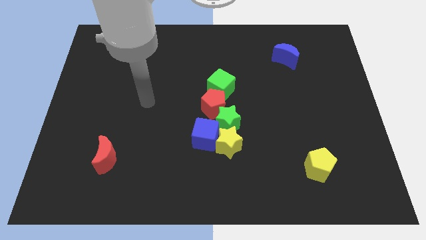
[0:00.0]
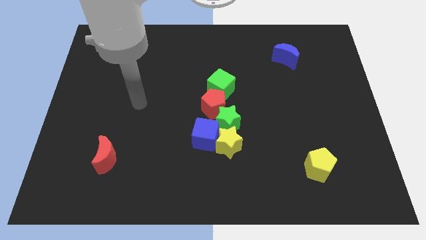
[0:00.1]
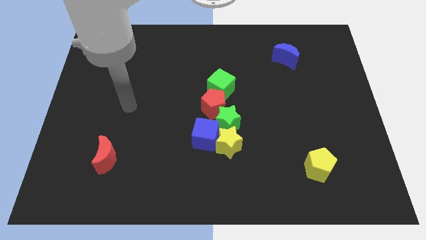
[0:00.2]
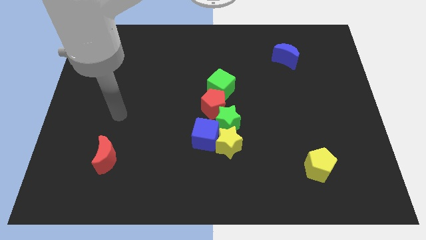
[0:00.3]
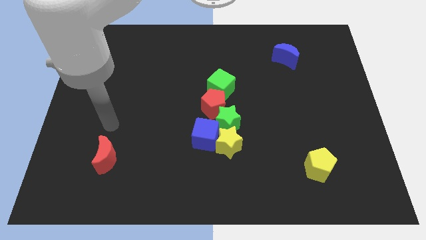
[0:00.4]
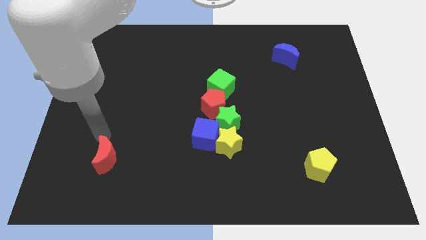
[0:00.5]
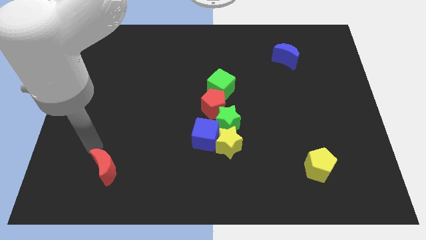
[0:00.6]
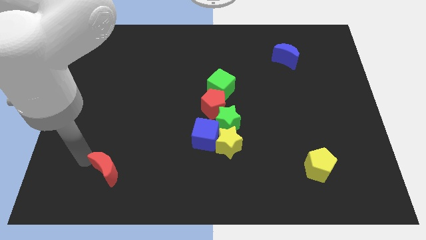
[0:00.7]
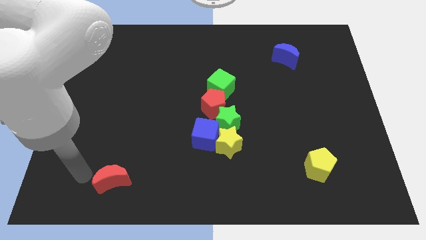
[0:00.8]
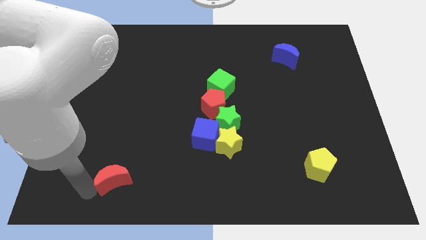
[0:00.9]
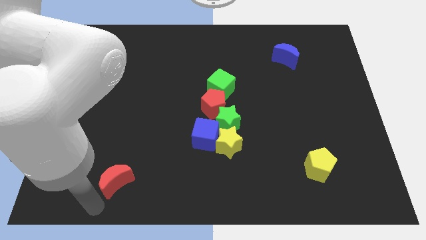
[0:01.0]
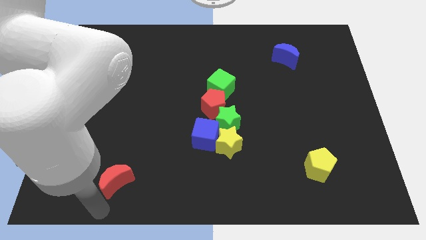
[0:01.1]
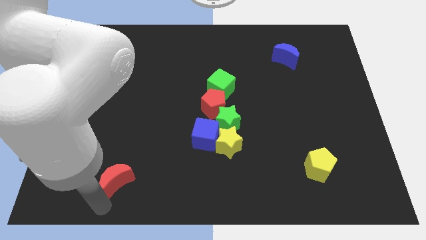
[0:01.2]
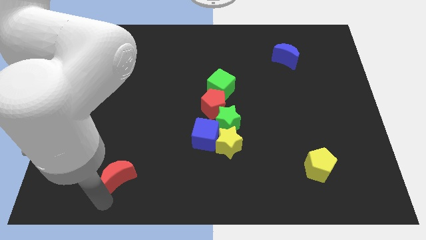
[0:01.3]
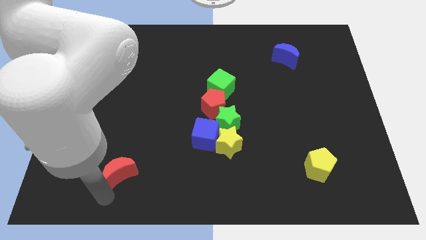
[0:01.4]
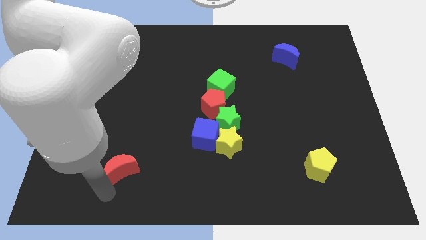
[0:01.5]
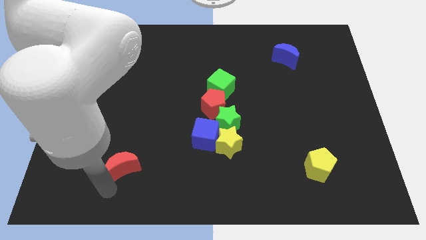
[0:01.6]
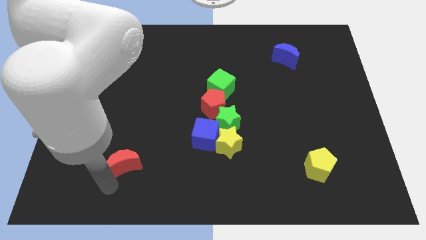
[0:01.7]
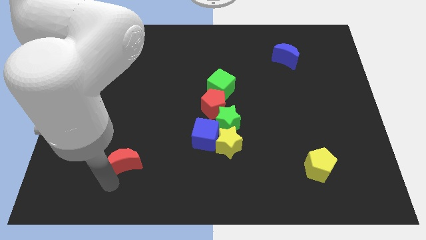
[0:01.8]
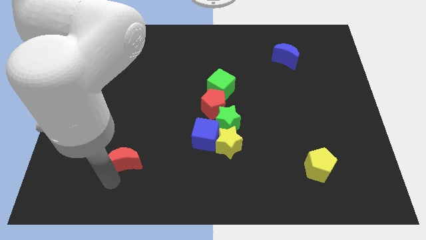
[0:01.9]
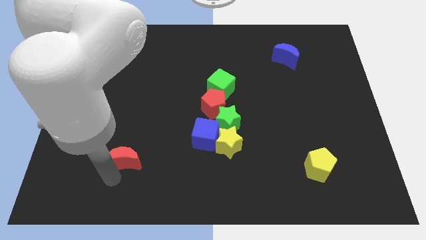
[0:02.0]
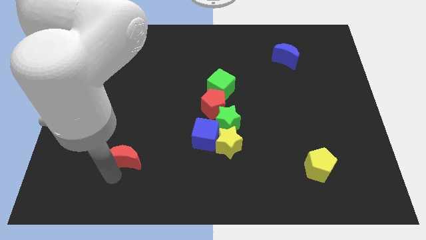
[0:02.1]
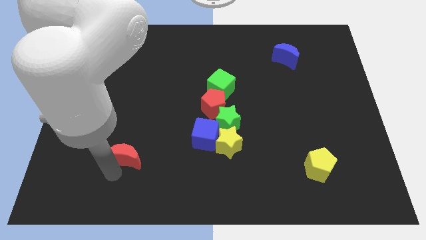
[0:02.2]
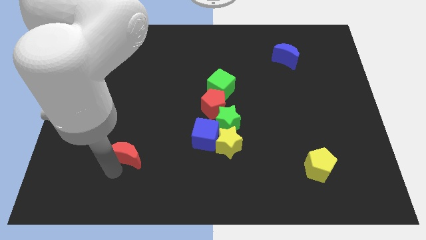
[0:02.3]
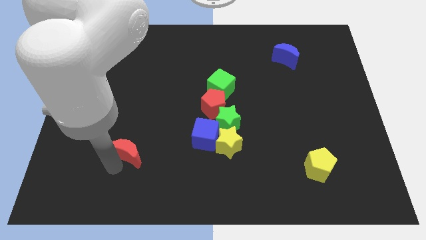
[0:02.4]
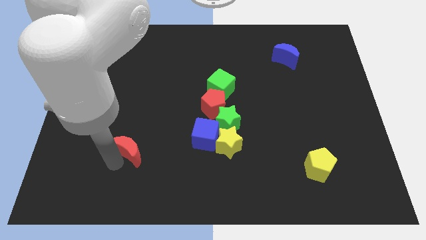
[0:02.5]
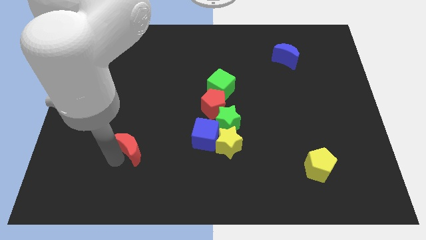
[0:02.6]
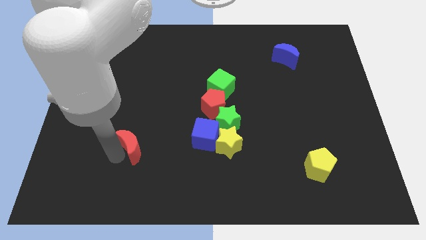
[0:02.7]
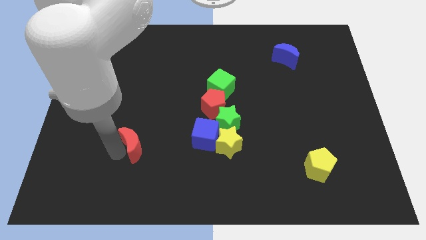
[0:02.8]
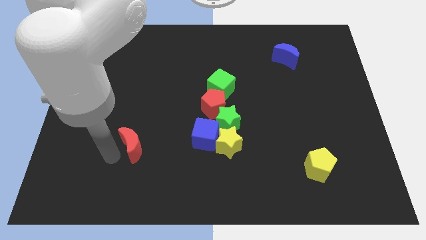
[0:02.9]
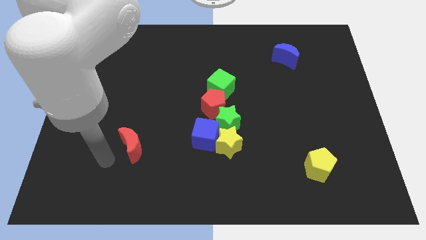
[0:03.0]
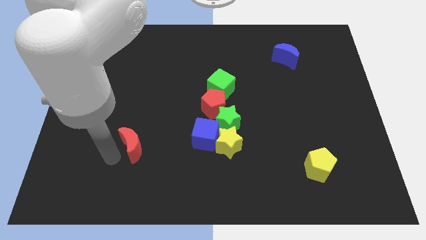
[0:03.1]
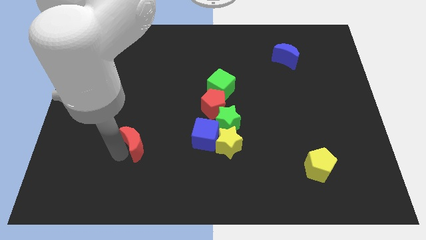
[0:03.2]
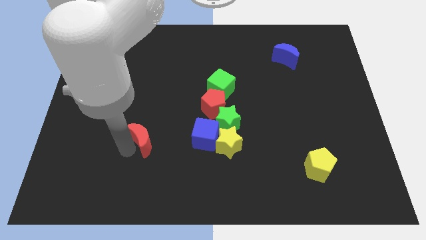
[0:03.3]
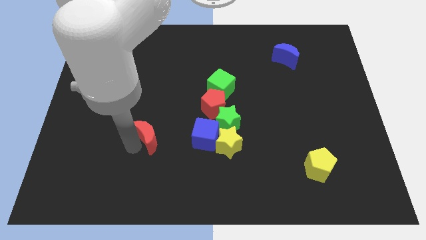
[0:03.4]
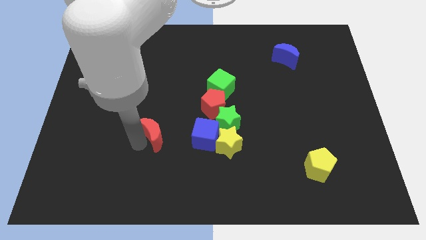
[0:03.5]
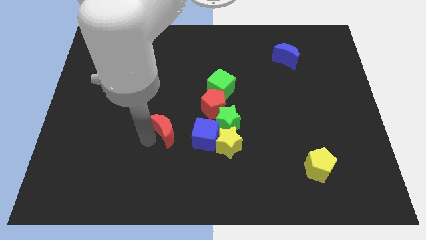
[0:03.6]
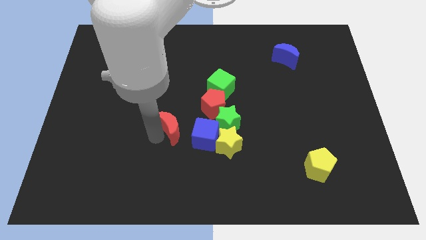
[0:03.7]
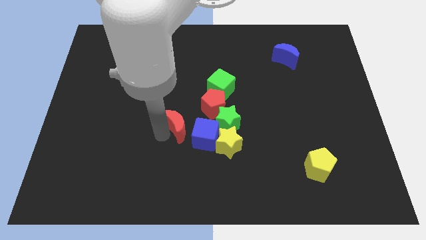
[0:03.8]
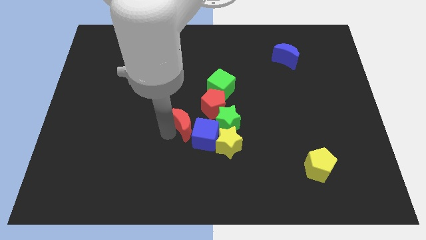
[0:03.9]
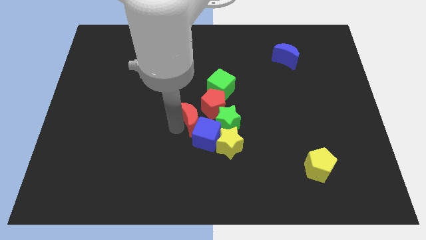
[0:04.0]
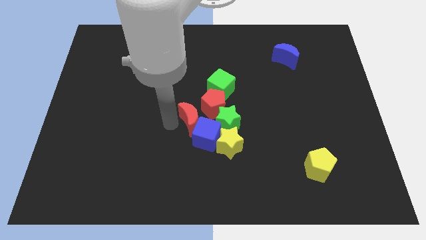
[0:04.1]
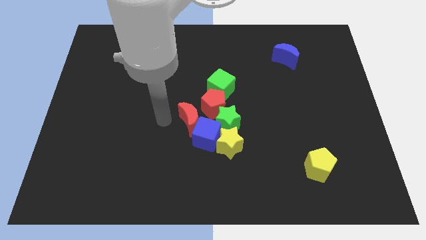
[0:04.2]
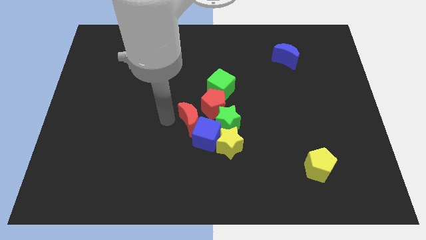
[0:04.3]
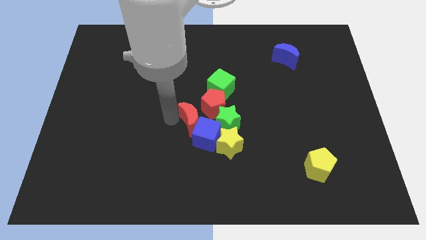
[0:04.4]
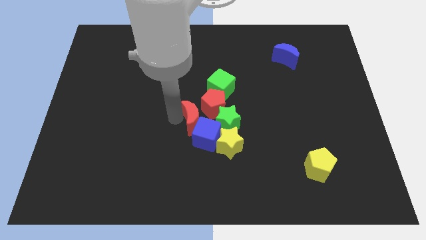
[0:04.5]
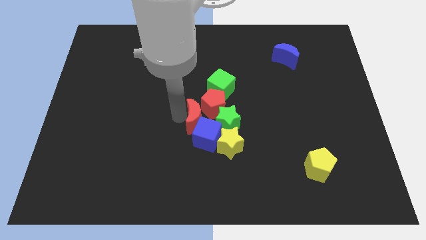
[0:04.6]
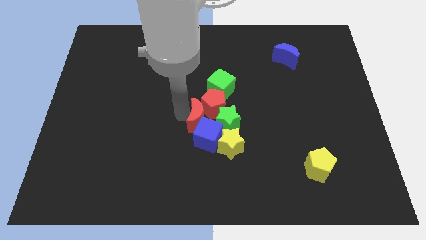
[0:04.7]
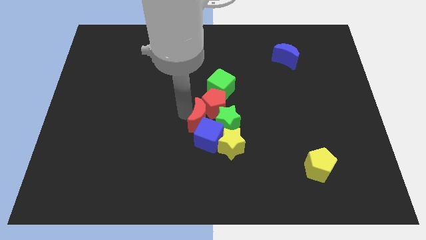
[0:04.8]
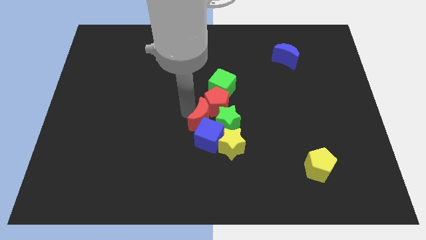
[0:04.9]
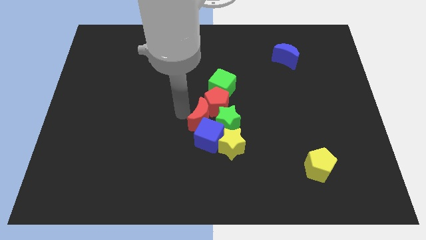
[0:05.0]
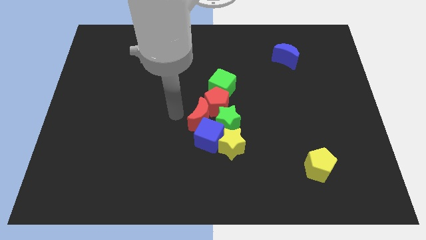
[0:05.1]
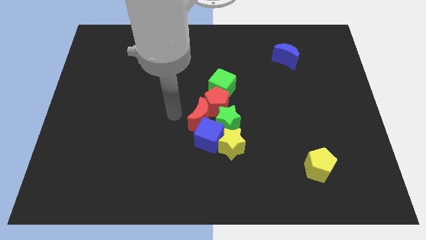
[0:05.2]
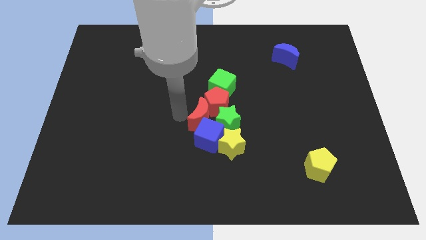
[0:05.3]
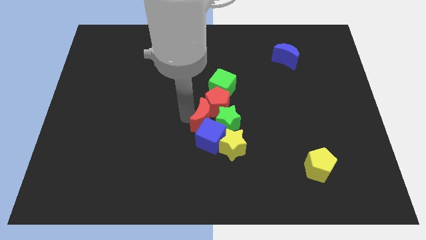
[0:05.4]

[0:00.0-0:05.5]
put the red moon close to the green star

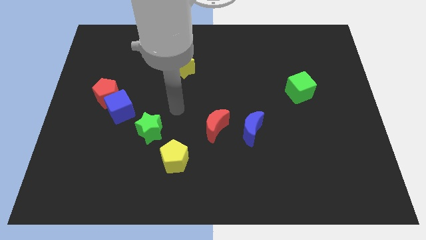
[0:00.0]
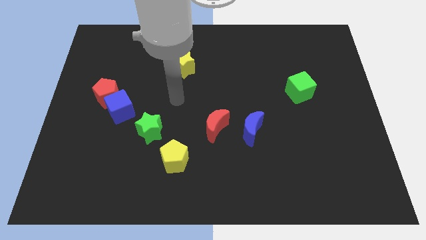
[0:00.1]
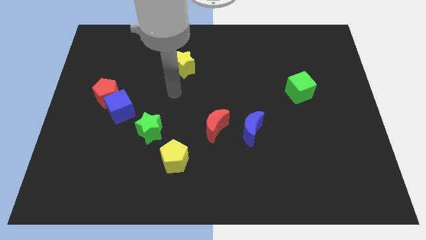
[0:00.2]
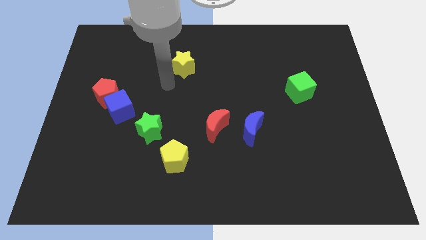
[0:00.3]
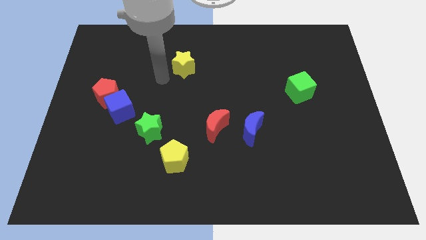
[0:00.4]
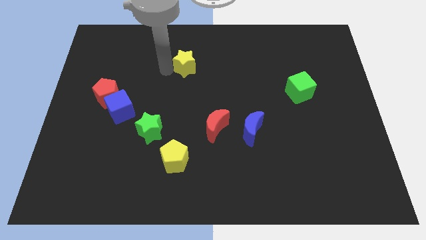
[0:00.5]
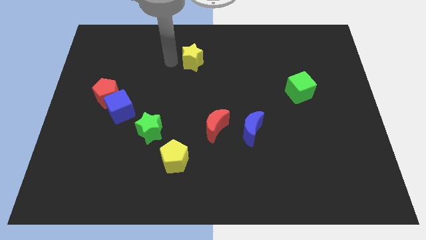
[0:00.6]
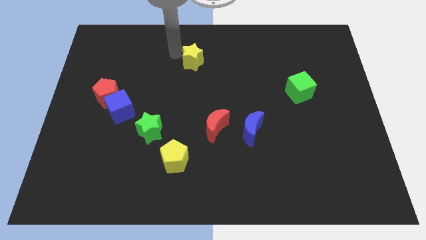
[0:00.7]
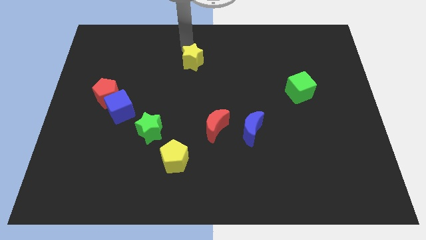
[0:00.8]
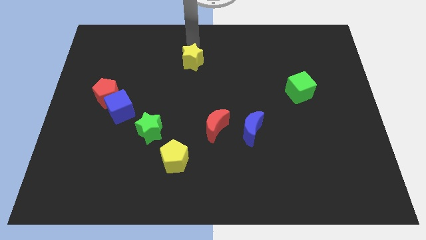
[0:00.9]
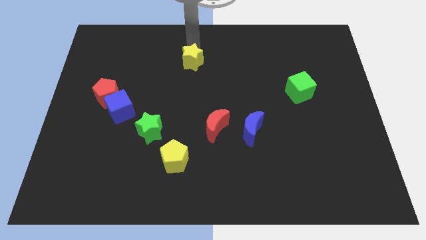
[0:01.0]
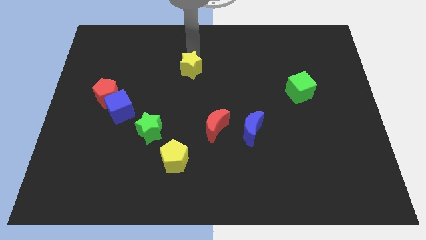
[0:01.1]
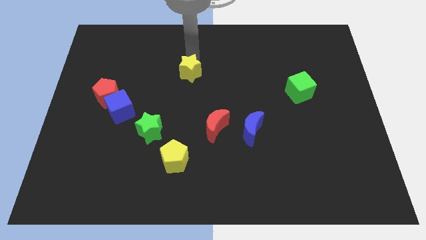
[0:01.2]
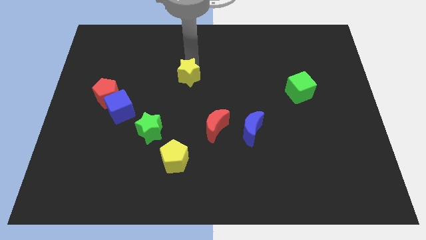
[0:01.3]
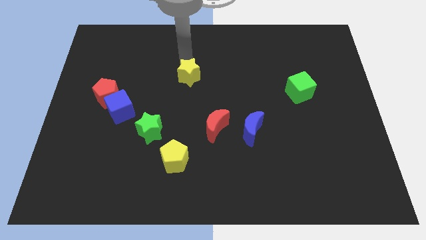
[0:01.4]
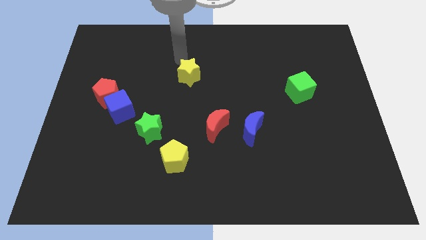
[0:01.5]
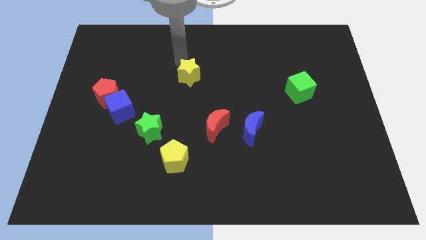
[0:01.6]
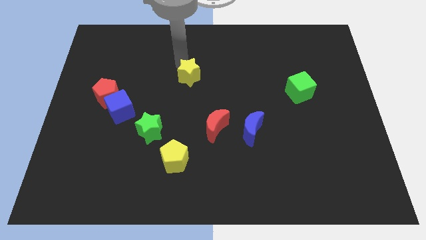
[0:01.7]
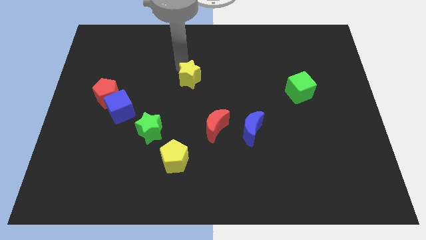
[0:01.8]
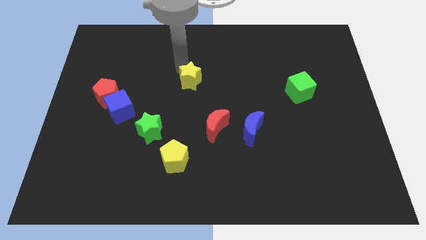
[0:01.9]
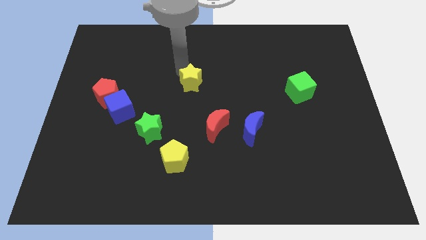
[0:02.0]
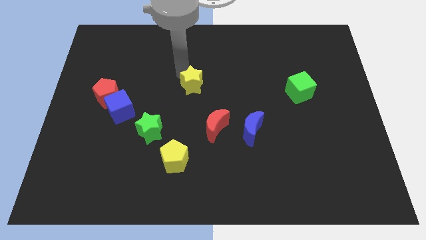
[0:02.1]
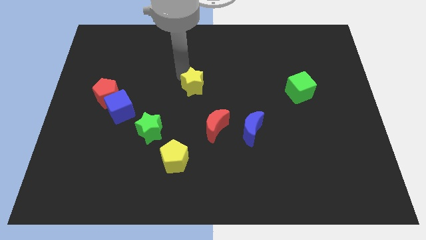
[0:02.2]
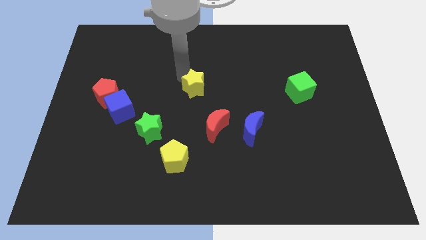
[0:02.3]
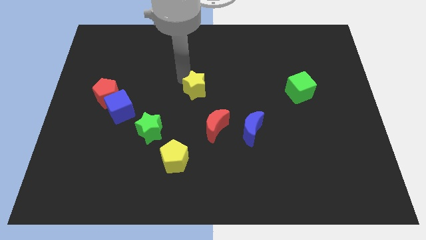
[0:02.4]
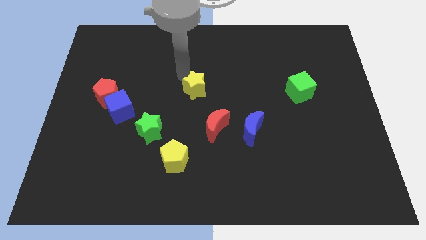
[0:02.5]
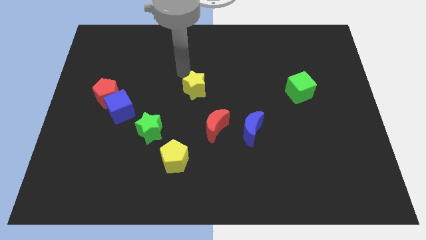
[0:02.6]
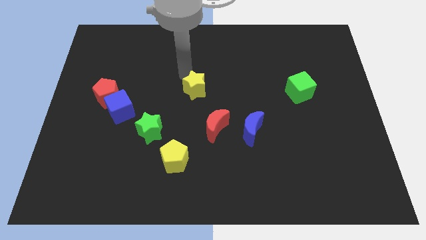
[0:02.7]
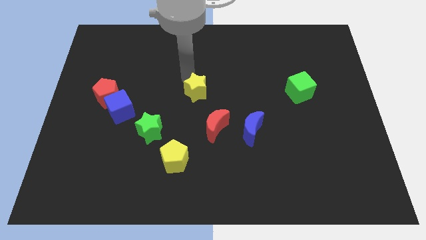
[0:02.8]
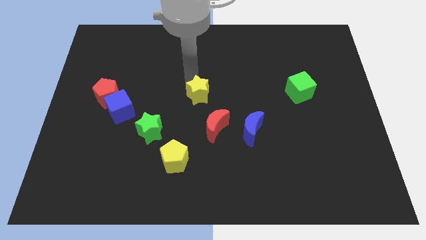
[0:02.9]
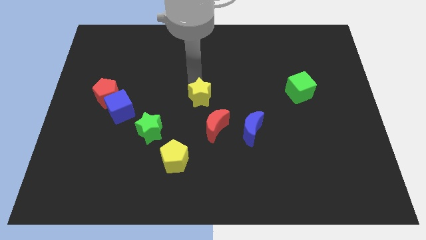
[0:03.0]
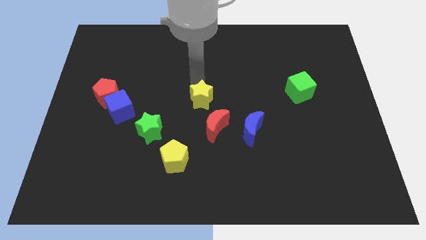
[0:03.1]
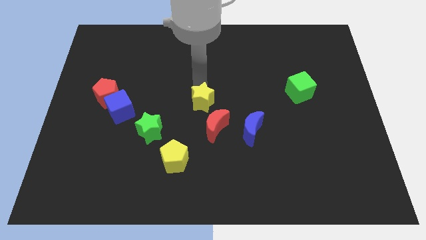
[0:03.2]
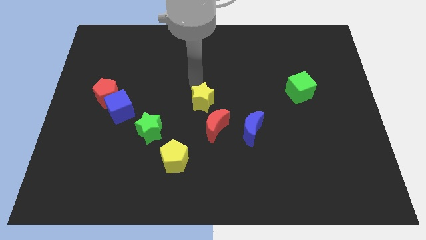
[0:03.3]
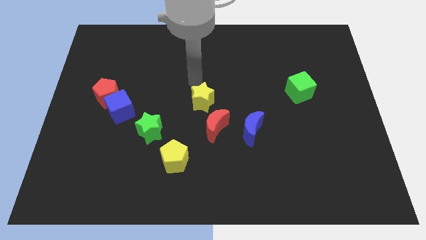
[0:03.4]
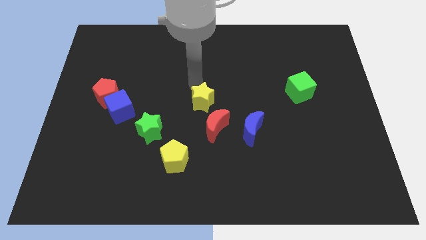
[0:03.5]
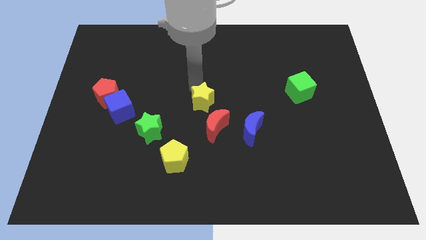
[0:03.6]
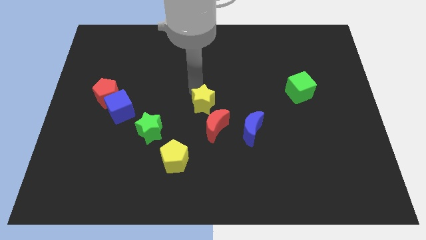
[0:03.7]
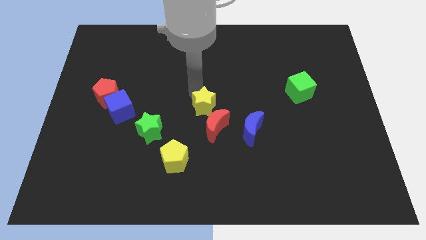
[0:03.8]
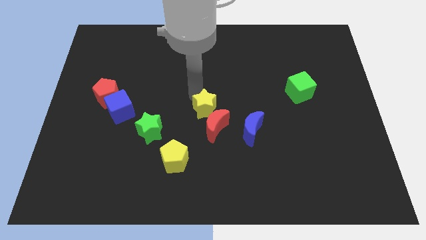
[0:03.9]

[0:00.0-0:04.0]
push the yellow star towards the red moon
